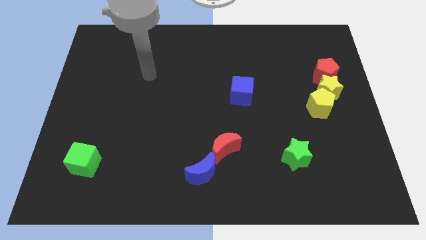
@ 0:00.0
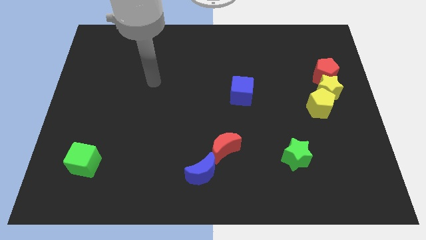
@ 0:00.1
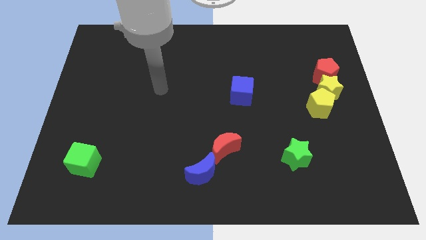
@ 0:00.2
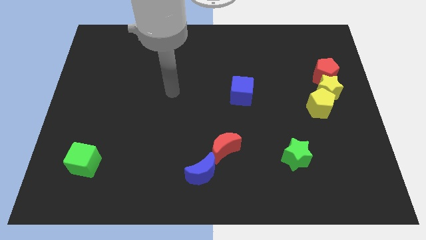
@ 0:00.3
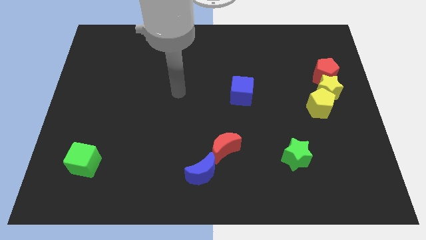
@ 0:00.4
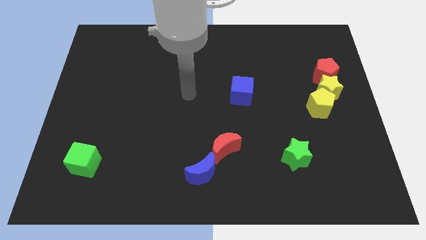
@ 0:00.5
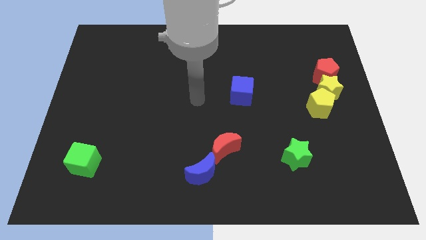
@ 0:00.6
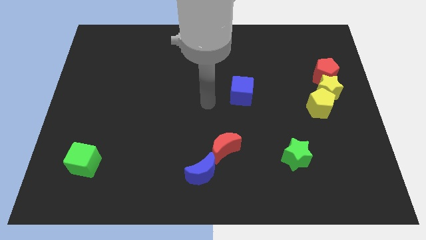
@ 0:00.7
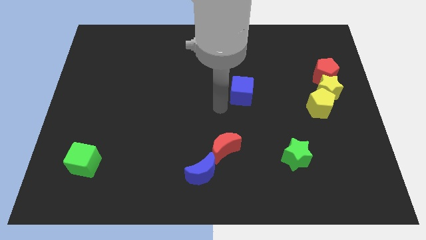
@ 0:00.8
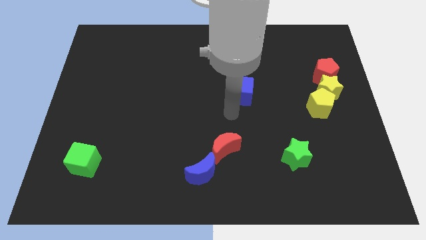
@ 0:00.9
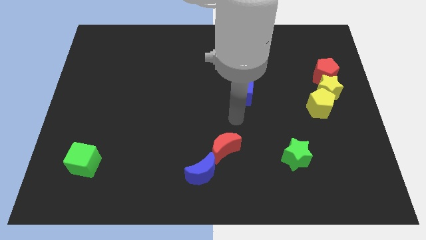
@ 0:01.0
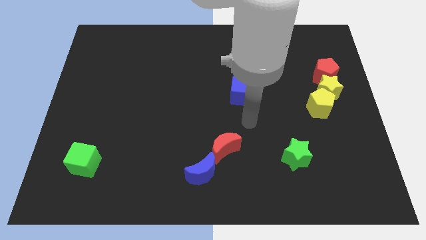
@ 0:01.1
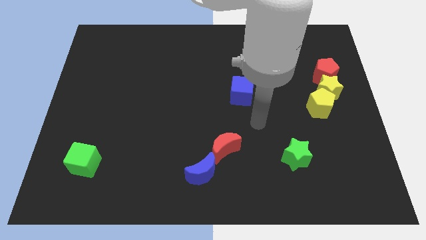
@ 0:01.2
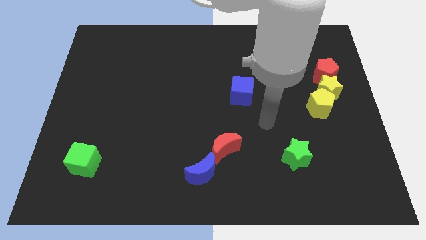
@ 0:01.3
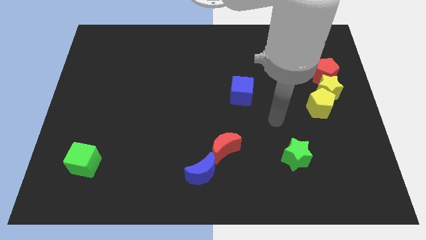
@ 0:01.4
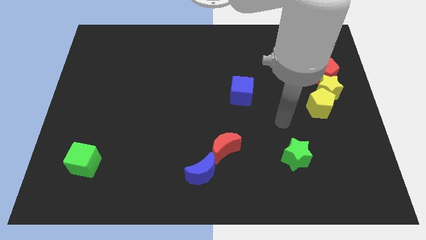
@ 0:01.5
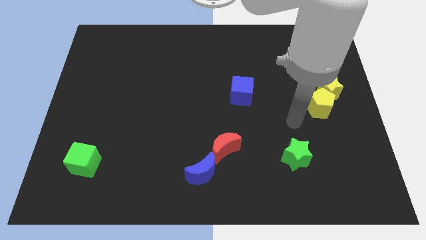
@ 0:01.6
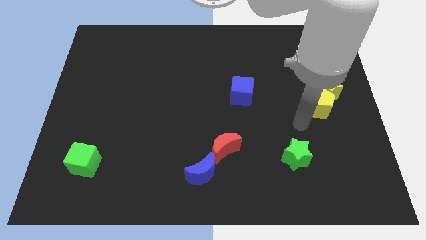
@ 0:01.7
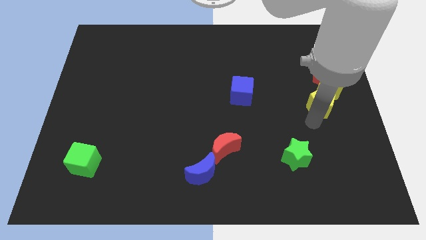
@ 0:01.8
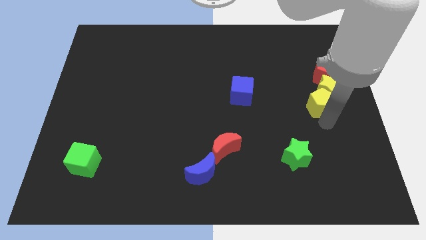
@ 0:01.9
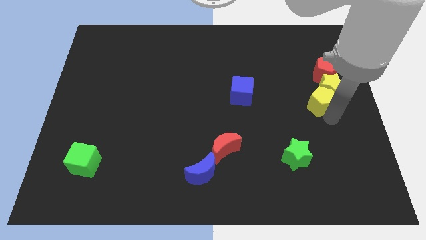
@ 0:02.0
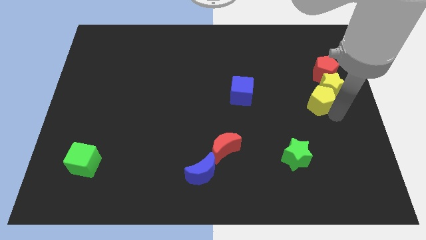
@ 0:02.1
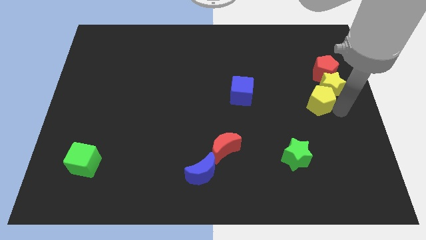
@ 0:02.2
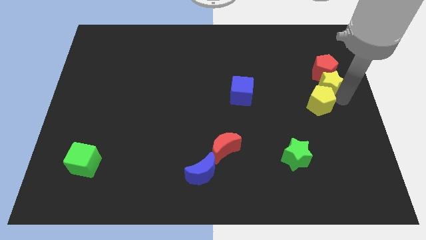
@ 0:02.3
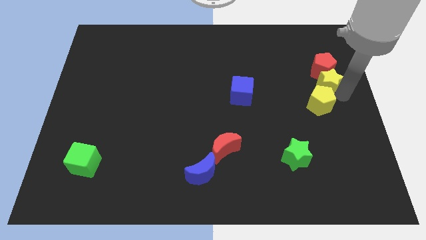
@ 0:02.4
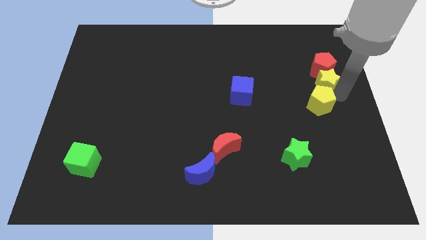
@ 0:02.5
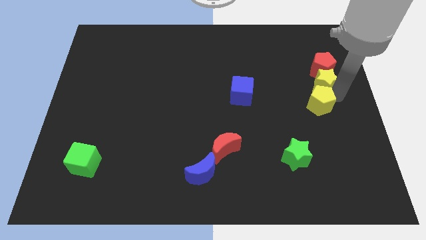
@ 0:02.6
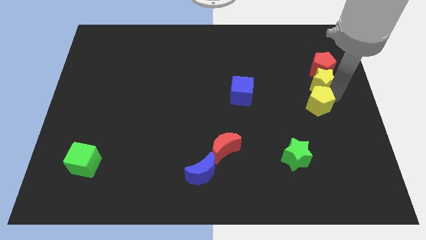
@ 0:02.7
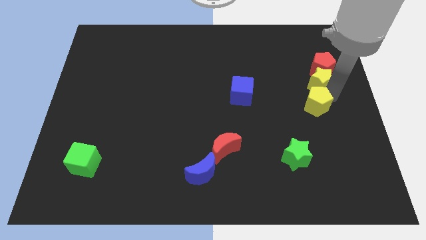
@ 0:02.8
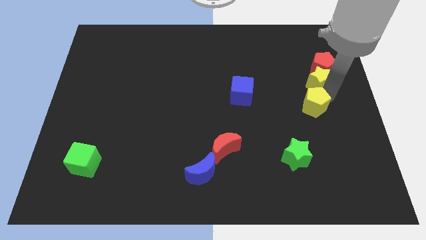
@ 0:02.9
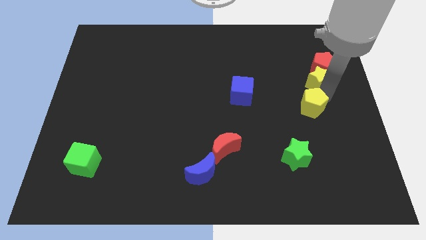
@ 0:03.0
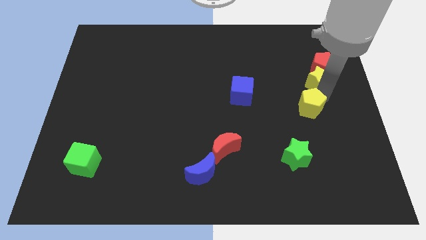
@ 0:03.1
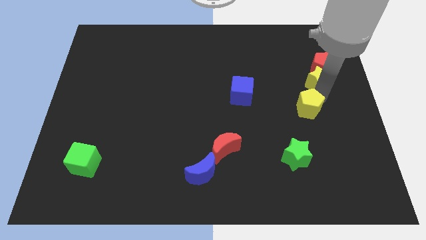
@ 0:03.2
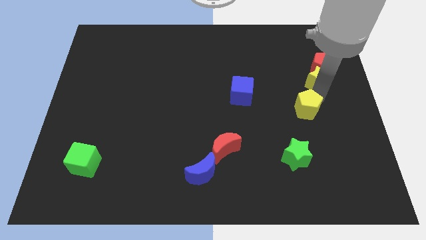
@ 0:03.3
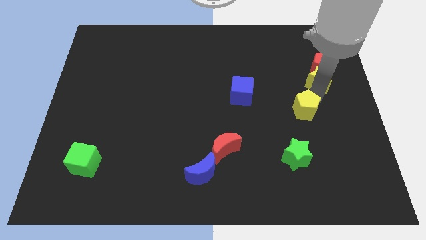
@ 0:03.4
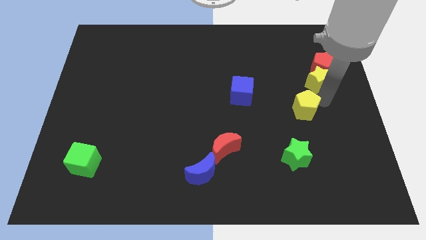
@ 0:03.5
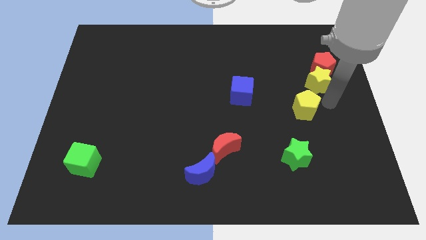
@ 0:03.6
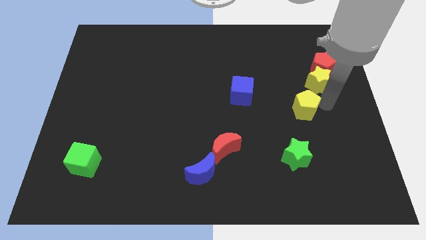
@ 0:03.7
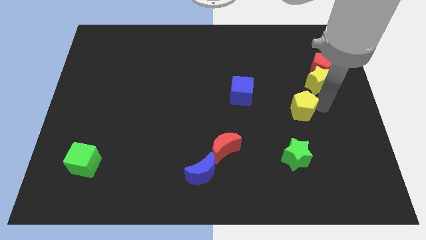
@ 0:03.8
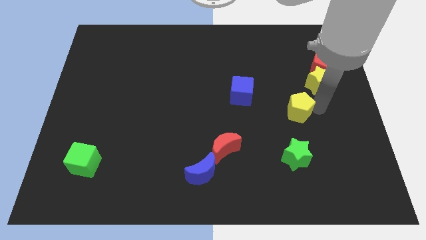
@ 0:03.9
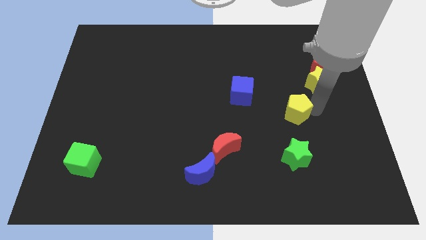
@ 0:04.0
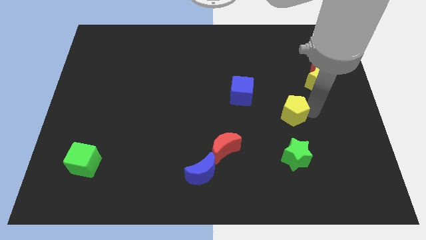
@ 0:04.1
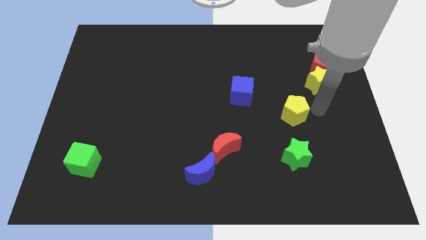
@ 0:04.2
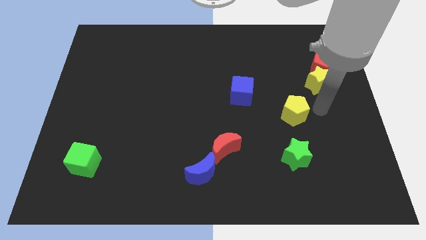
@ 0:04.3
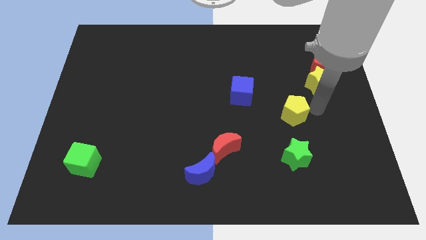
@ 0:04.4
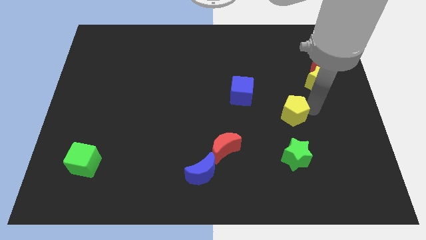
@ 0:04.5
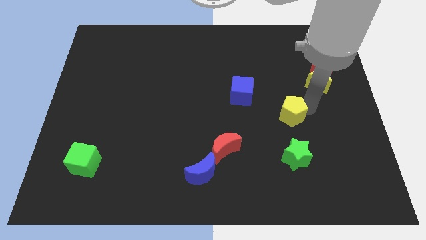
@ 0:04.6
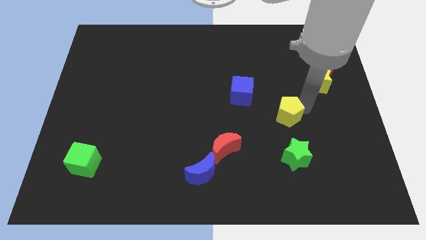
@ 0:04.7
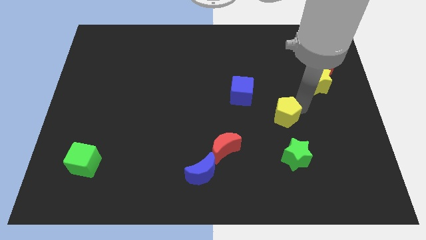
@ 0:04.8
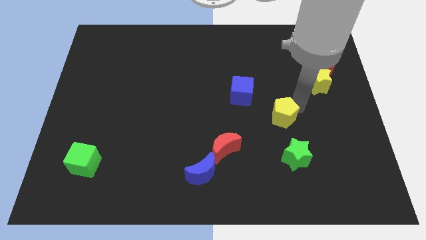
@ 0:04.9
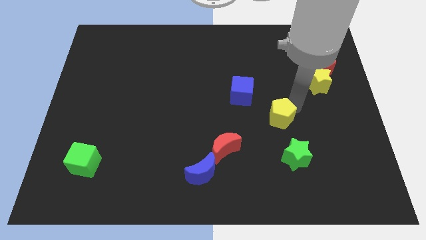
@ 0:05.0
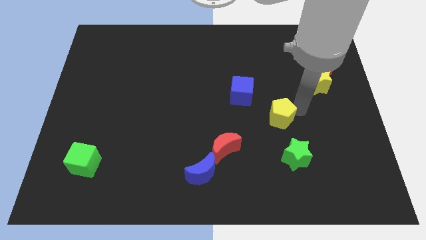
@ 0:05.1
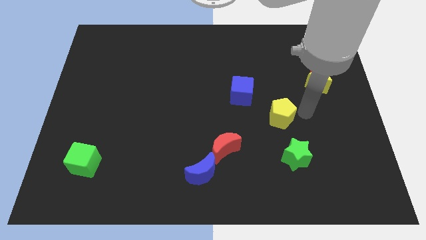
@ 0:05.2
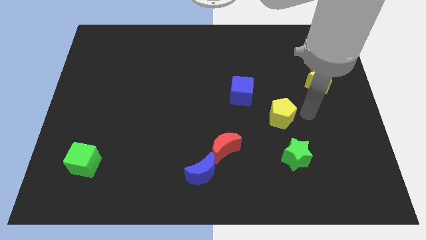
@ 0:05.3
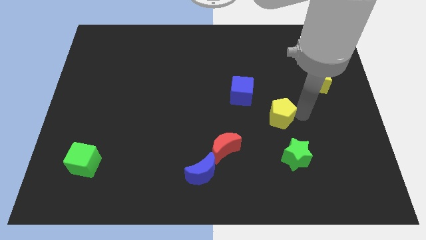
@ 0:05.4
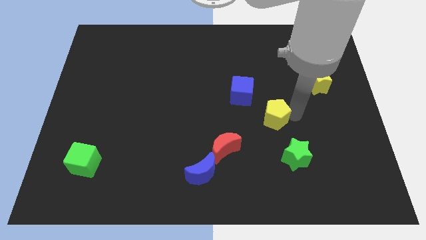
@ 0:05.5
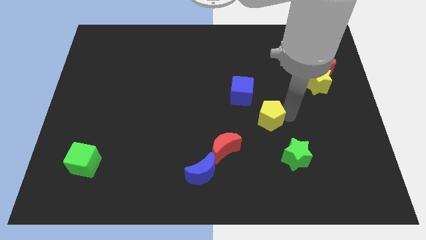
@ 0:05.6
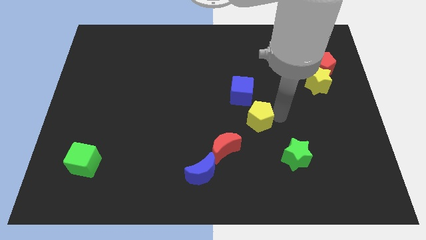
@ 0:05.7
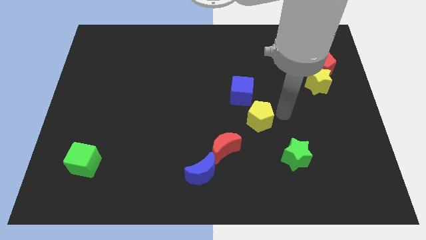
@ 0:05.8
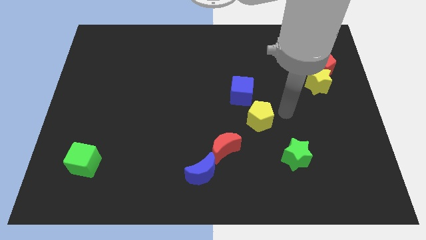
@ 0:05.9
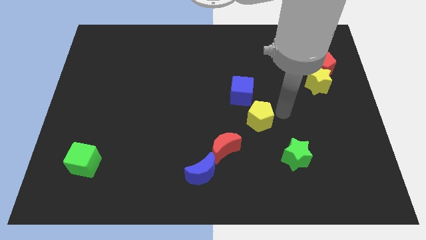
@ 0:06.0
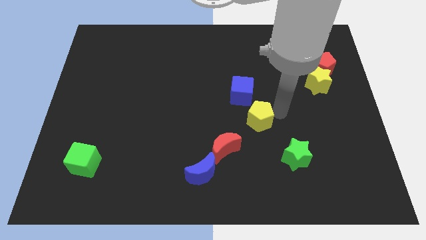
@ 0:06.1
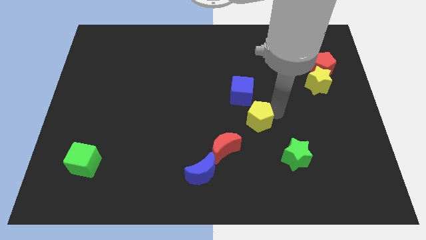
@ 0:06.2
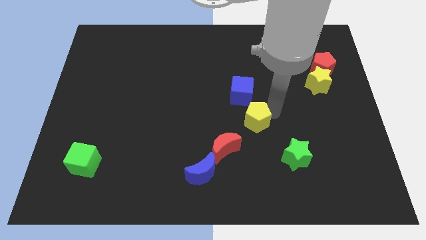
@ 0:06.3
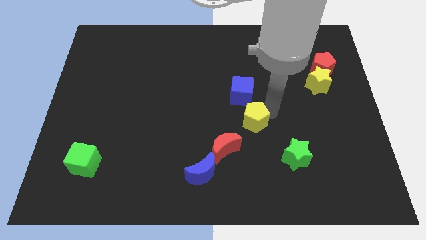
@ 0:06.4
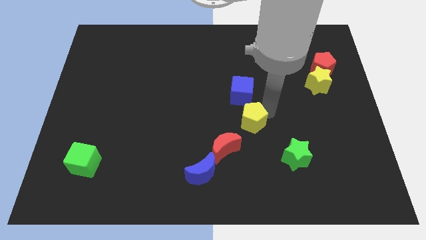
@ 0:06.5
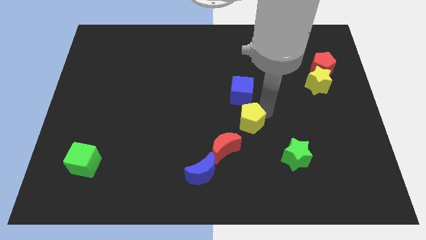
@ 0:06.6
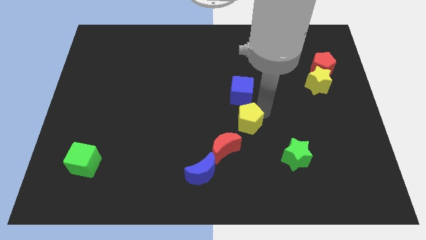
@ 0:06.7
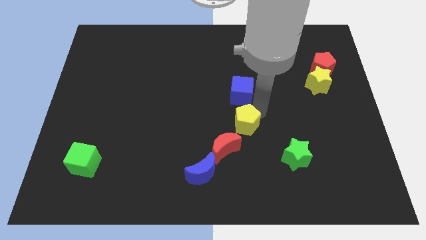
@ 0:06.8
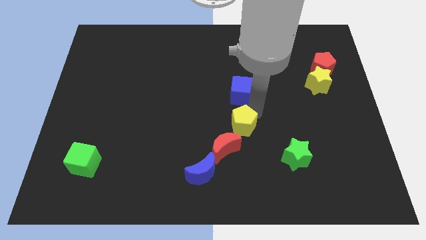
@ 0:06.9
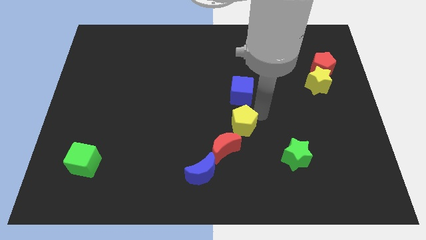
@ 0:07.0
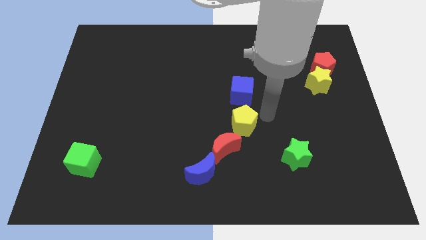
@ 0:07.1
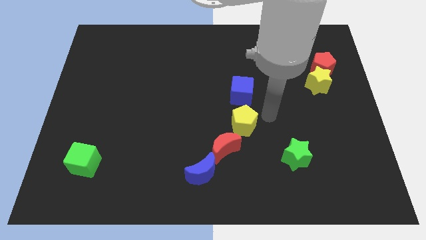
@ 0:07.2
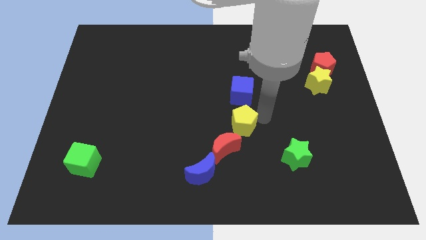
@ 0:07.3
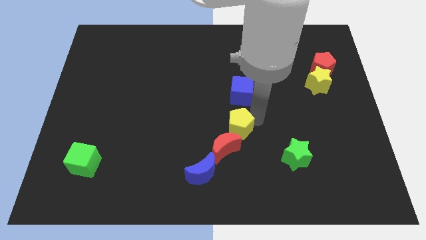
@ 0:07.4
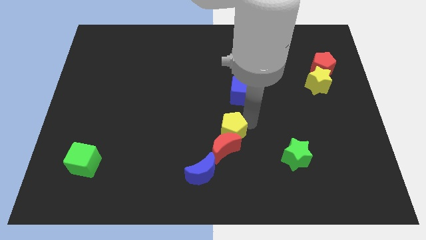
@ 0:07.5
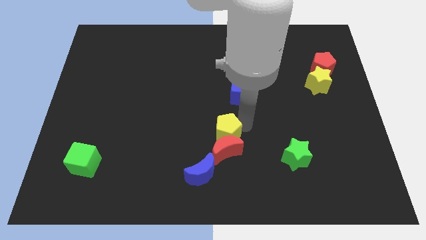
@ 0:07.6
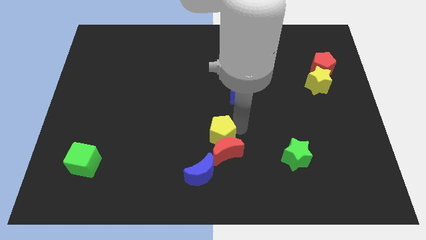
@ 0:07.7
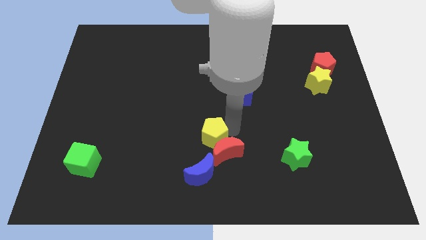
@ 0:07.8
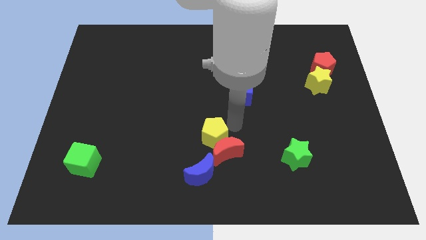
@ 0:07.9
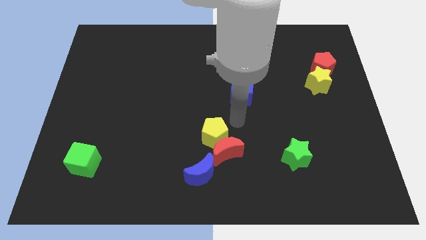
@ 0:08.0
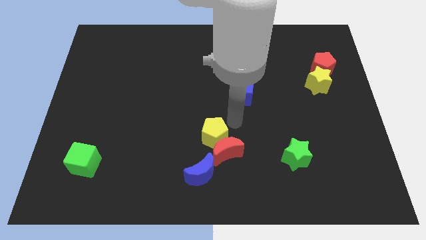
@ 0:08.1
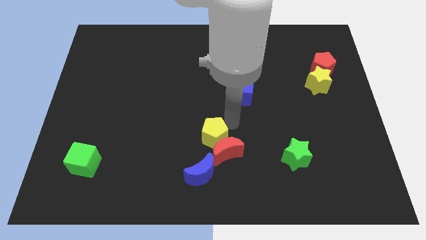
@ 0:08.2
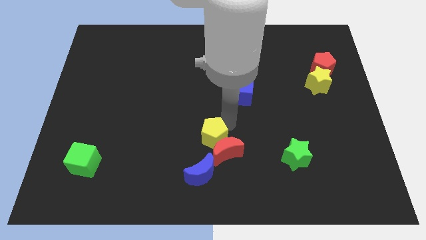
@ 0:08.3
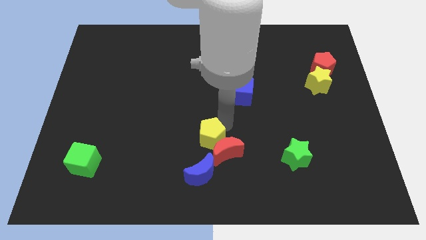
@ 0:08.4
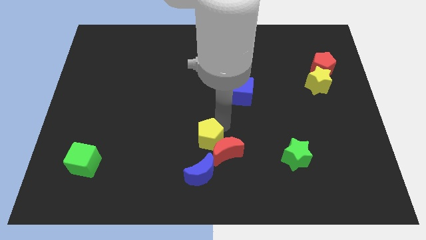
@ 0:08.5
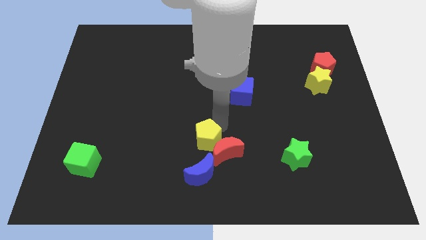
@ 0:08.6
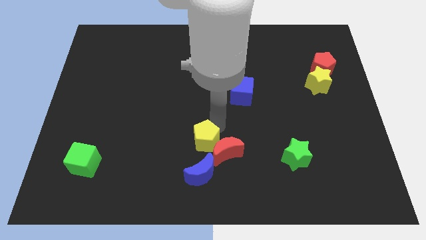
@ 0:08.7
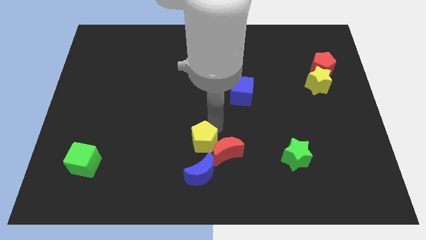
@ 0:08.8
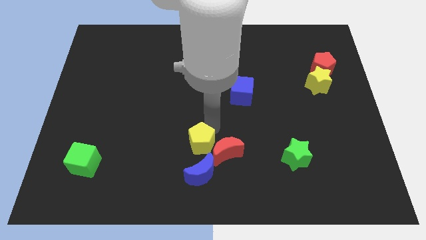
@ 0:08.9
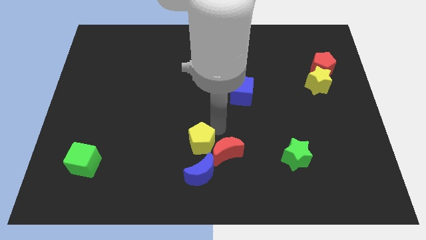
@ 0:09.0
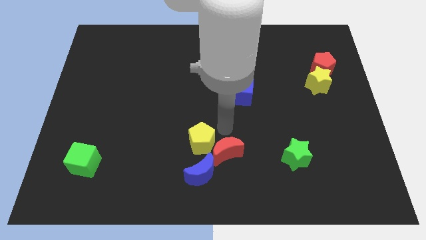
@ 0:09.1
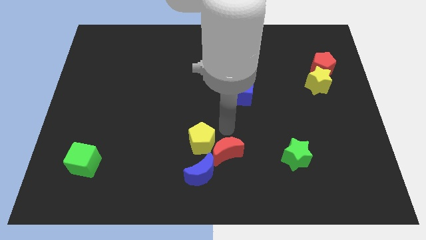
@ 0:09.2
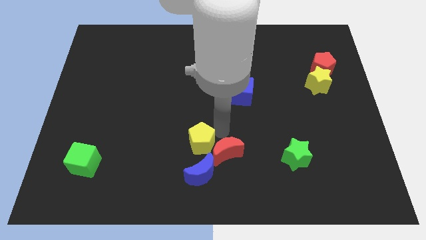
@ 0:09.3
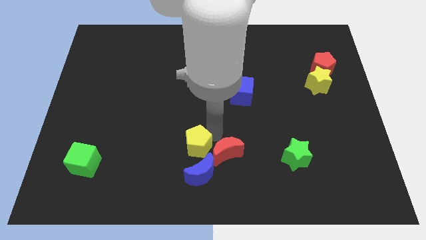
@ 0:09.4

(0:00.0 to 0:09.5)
put the yellow pentagon diagonally up and to the left of the blue moon
